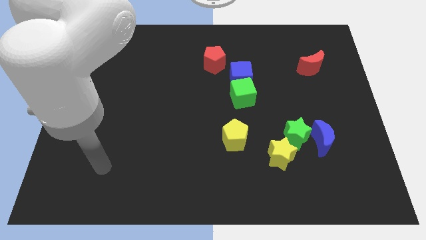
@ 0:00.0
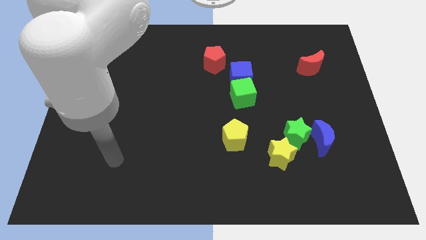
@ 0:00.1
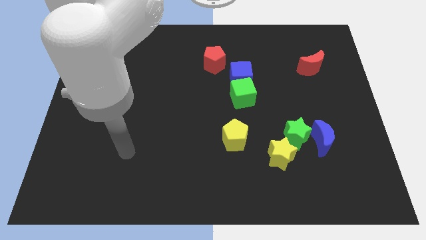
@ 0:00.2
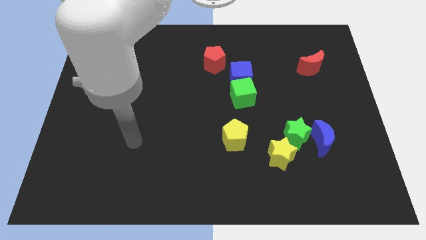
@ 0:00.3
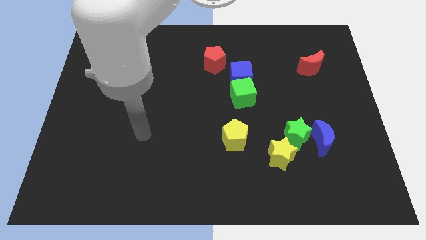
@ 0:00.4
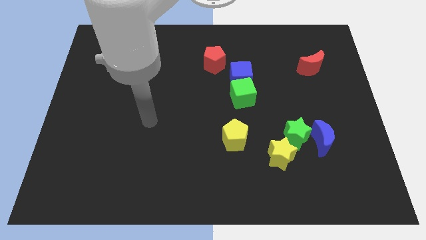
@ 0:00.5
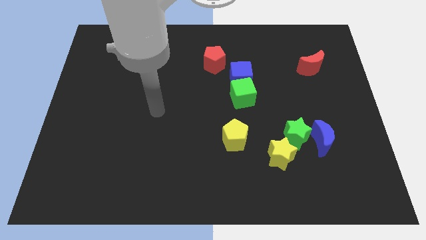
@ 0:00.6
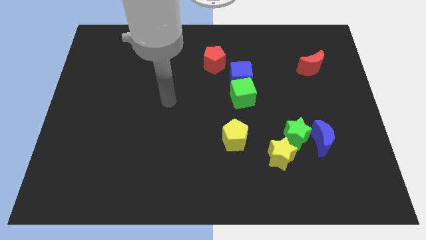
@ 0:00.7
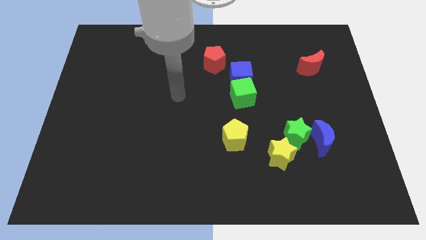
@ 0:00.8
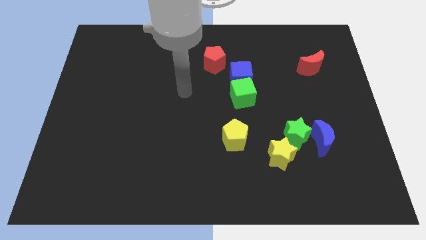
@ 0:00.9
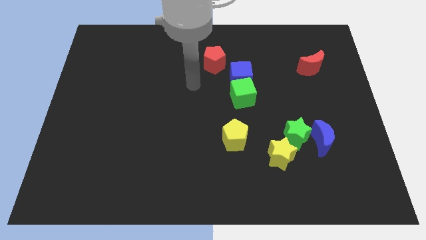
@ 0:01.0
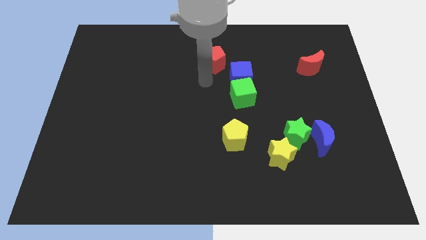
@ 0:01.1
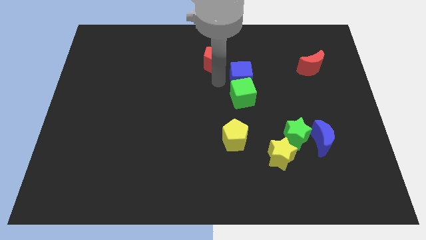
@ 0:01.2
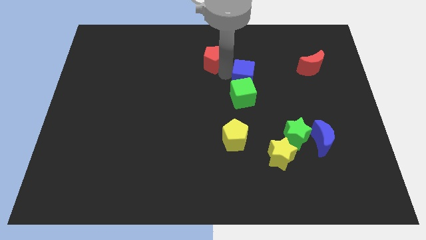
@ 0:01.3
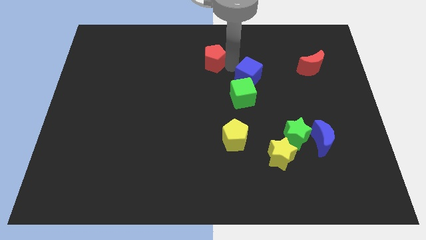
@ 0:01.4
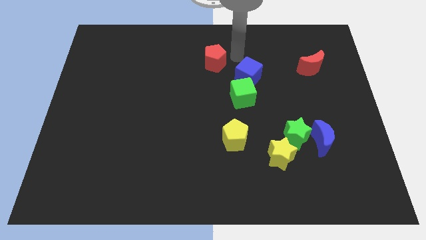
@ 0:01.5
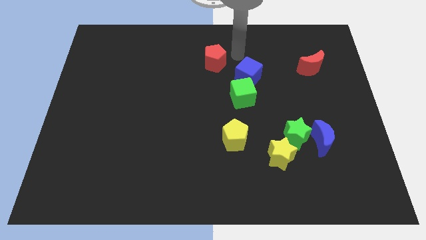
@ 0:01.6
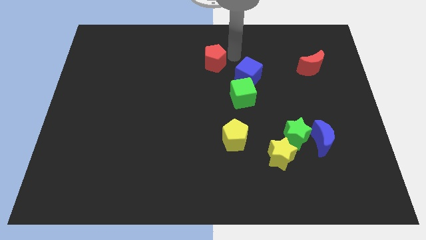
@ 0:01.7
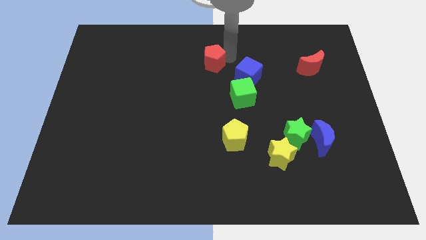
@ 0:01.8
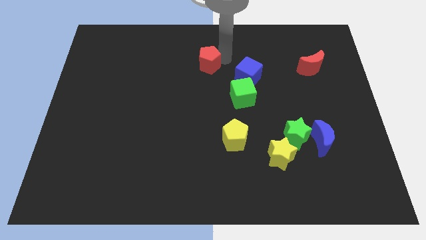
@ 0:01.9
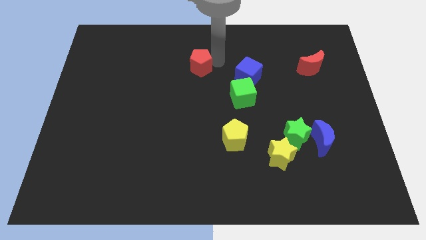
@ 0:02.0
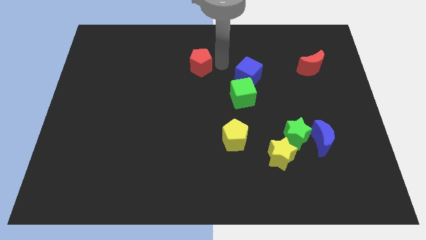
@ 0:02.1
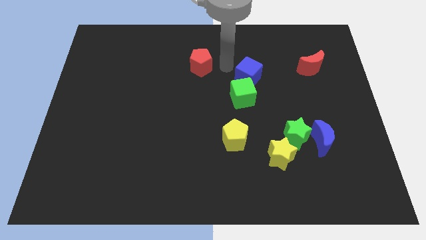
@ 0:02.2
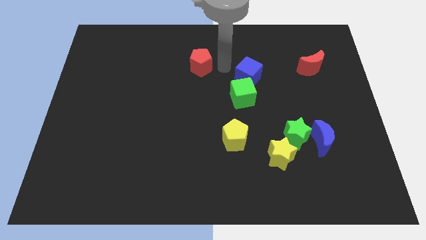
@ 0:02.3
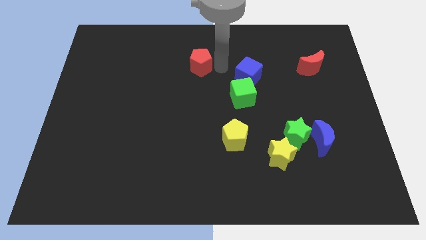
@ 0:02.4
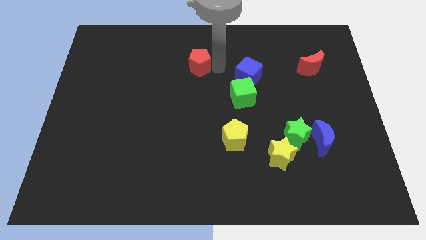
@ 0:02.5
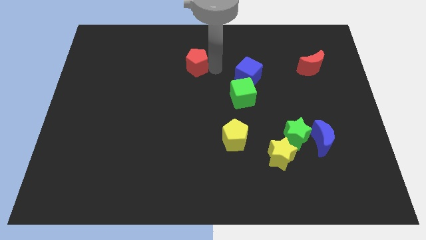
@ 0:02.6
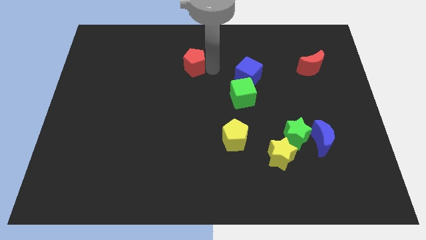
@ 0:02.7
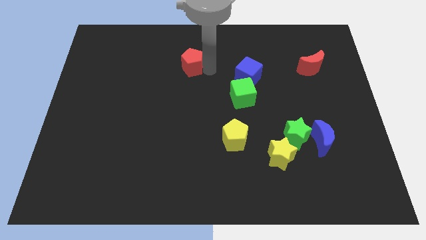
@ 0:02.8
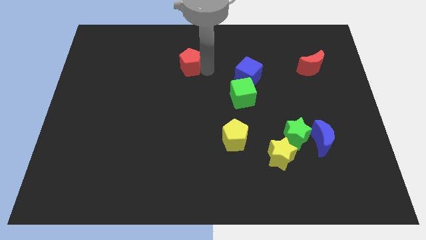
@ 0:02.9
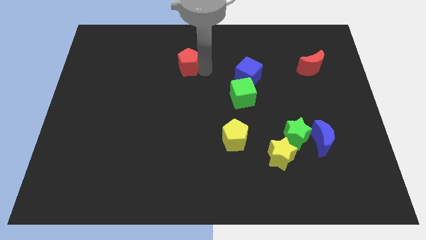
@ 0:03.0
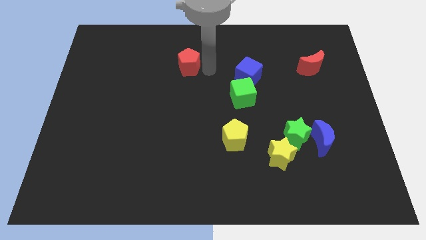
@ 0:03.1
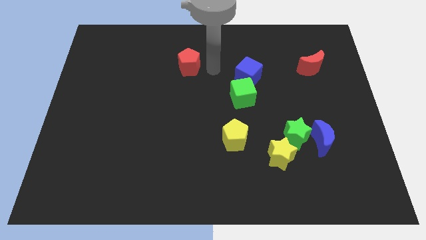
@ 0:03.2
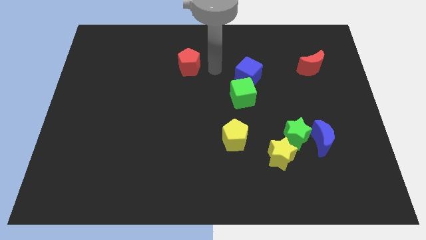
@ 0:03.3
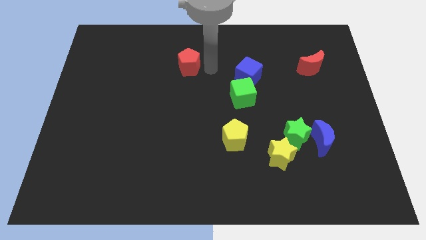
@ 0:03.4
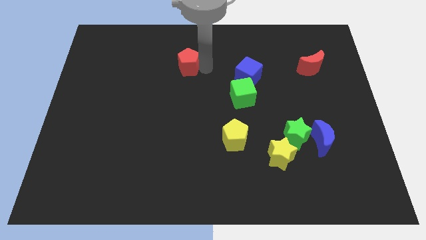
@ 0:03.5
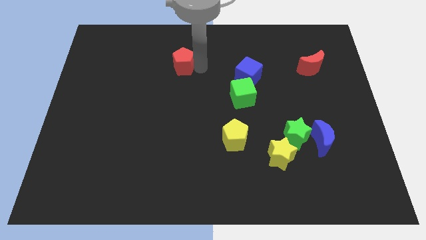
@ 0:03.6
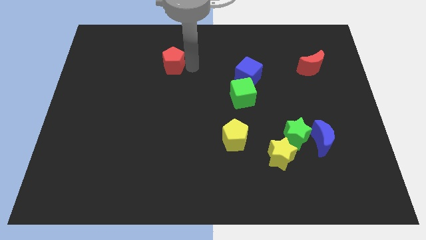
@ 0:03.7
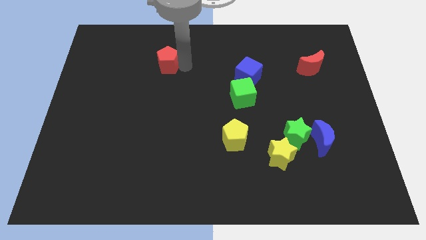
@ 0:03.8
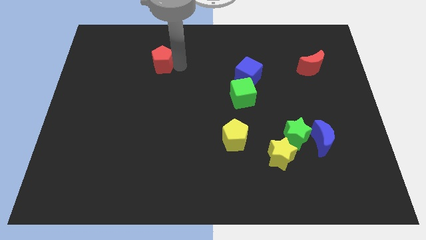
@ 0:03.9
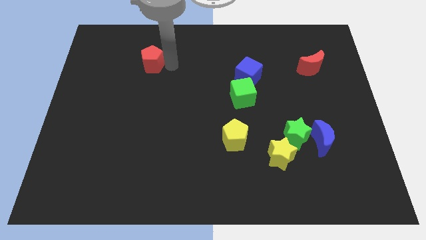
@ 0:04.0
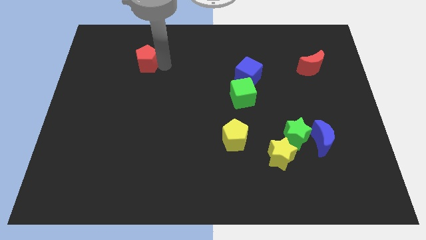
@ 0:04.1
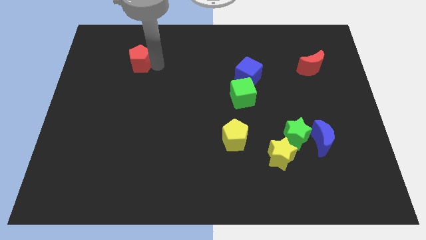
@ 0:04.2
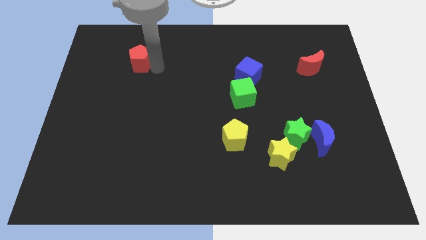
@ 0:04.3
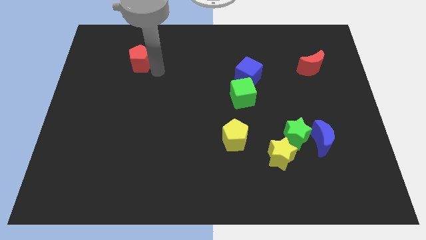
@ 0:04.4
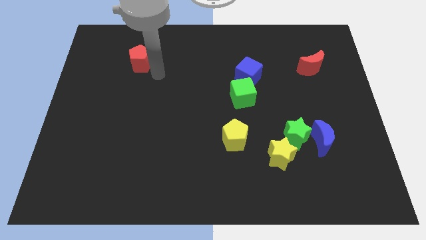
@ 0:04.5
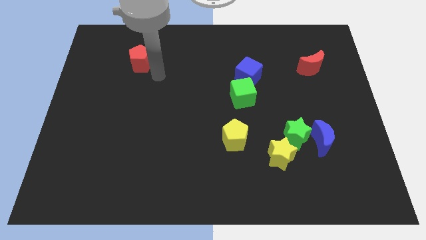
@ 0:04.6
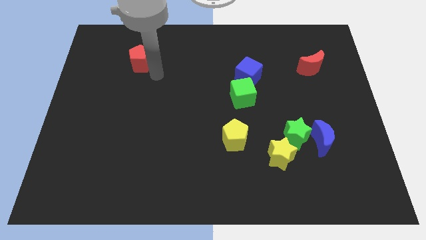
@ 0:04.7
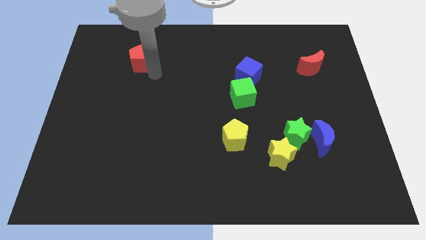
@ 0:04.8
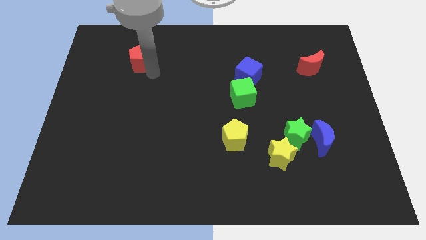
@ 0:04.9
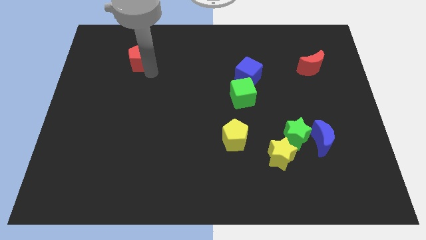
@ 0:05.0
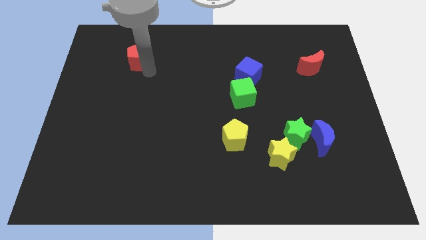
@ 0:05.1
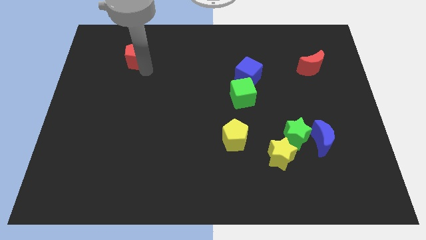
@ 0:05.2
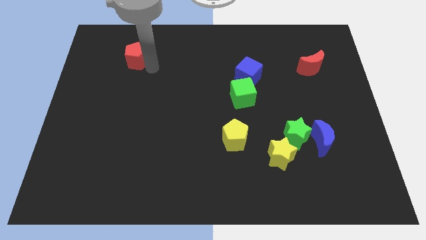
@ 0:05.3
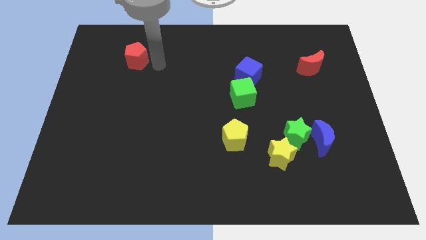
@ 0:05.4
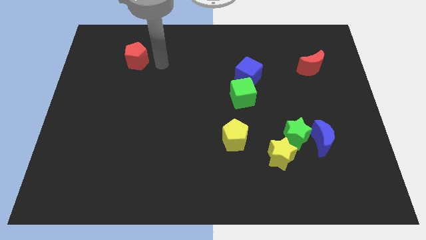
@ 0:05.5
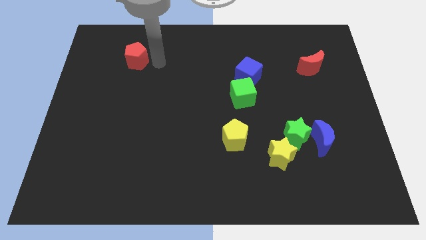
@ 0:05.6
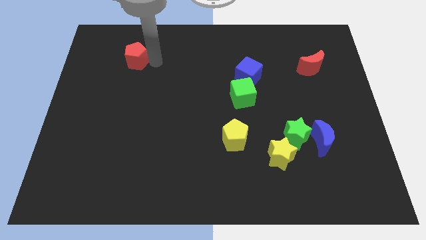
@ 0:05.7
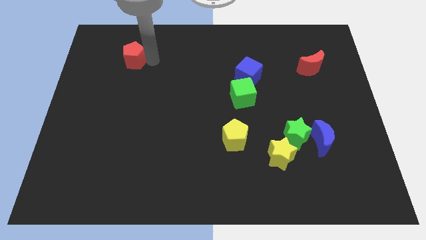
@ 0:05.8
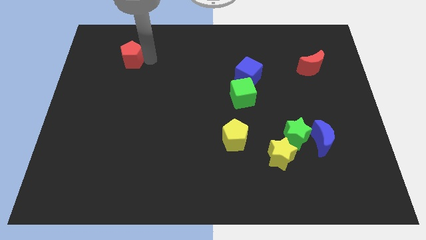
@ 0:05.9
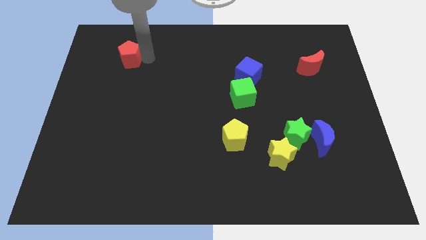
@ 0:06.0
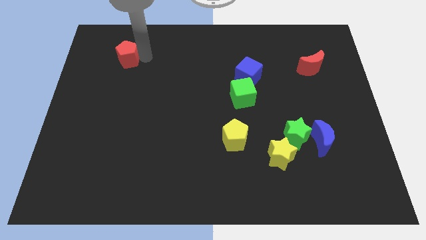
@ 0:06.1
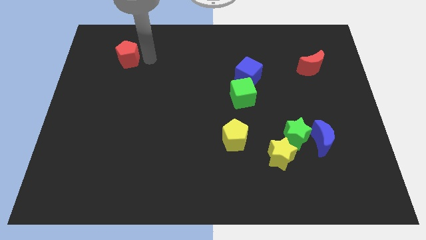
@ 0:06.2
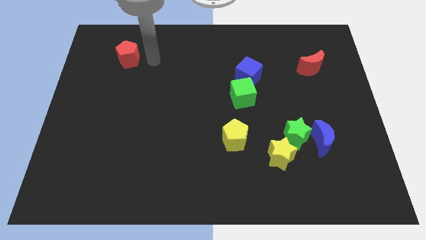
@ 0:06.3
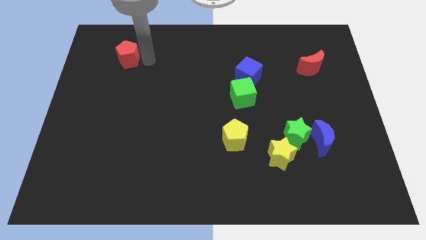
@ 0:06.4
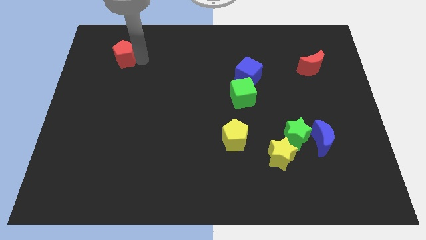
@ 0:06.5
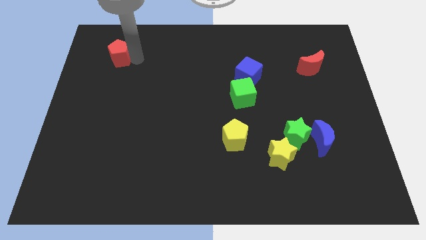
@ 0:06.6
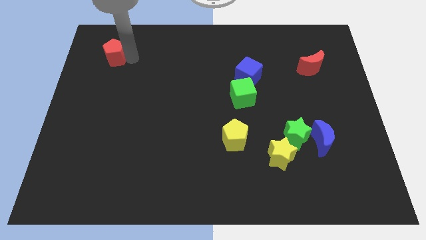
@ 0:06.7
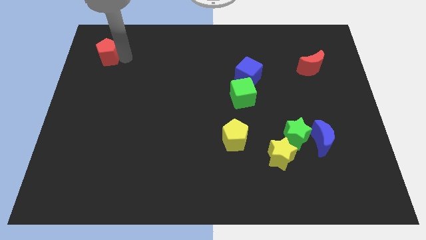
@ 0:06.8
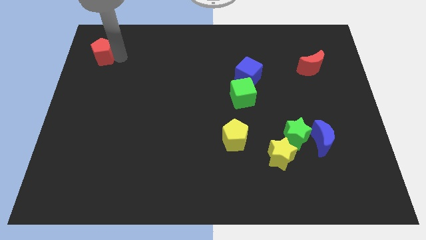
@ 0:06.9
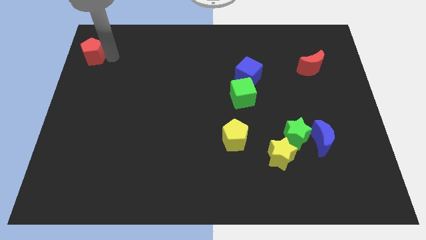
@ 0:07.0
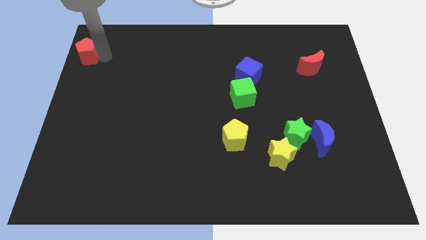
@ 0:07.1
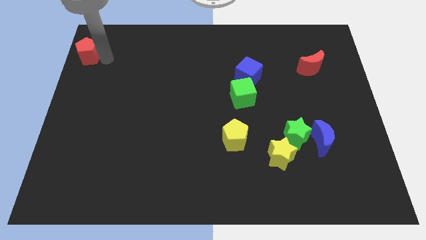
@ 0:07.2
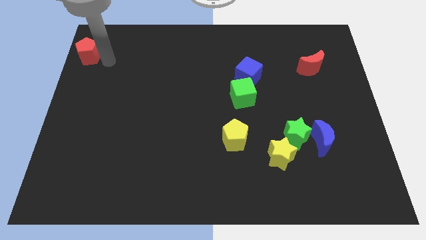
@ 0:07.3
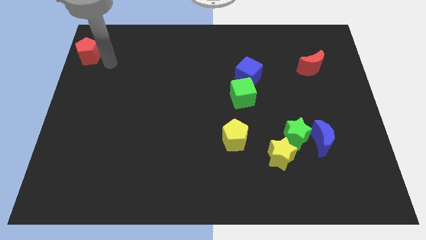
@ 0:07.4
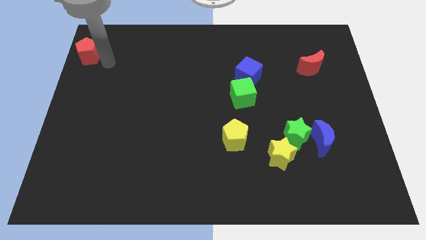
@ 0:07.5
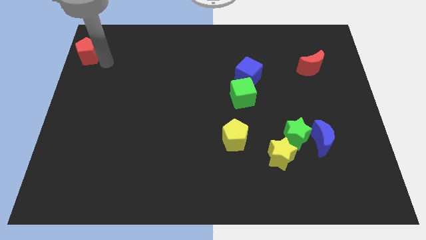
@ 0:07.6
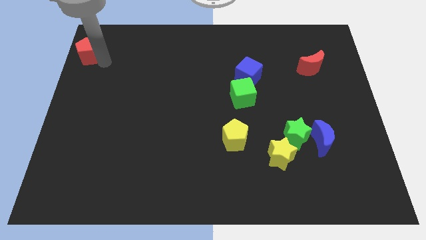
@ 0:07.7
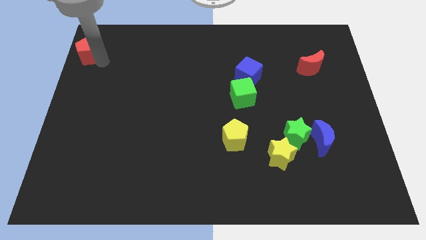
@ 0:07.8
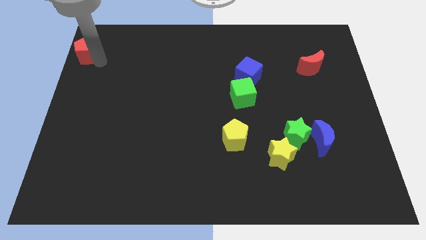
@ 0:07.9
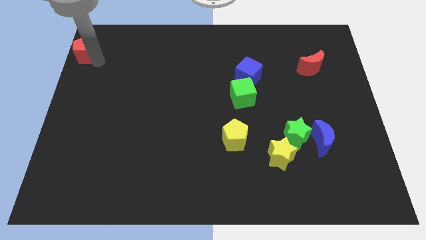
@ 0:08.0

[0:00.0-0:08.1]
move the red pentagon to the upper left corner
